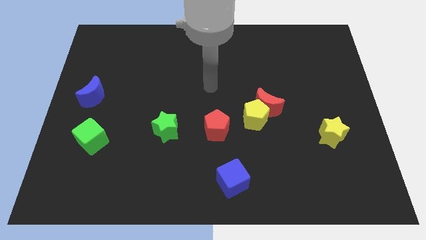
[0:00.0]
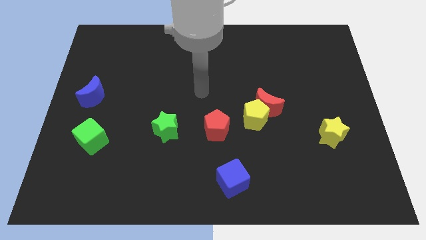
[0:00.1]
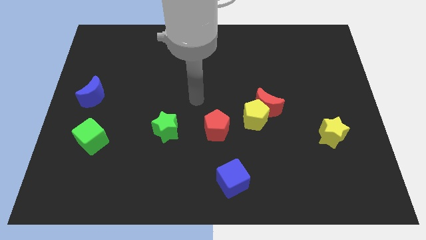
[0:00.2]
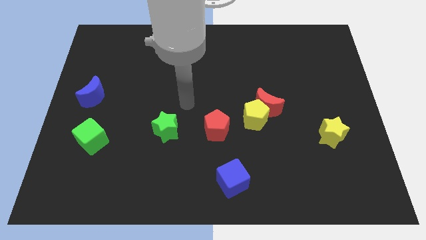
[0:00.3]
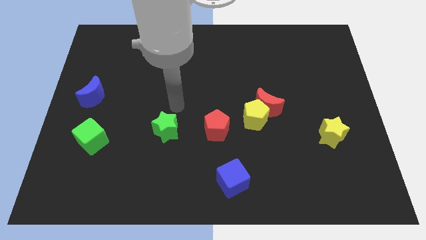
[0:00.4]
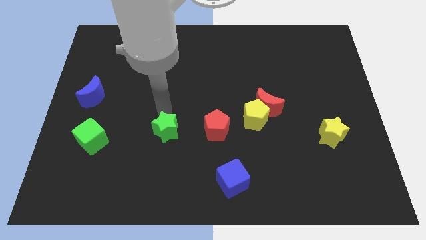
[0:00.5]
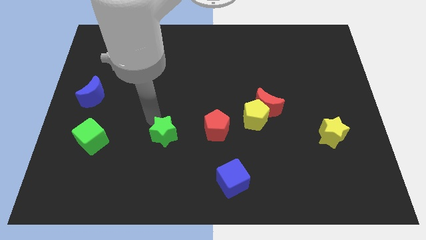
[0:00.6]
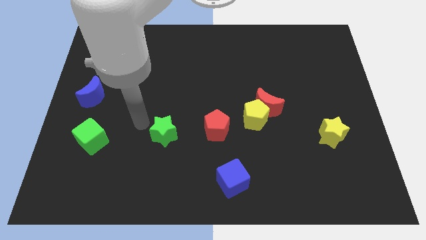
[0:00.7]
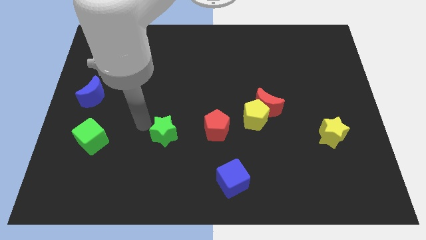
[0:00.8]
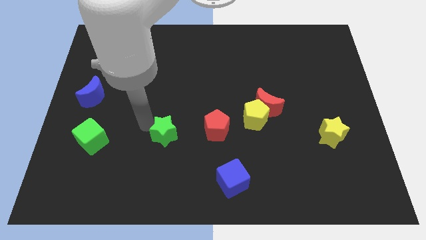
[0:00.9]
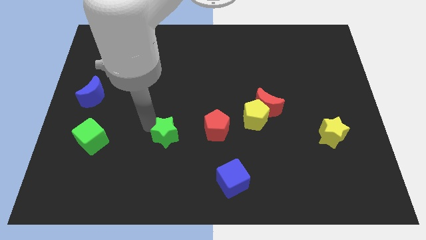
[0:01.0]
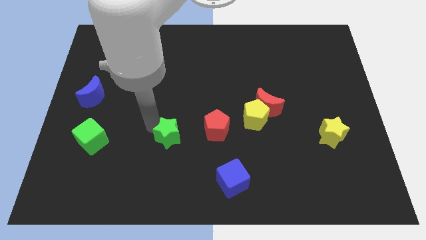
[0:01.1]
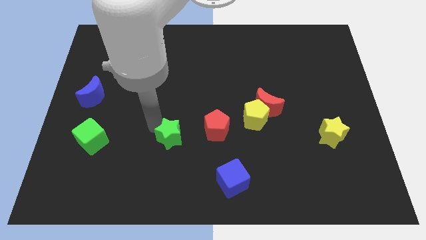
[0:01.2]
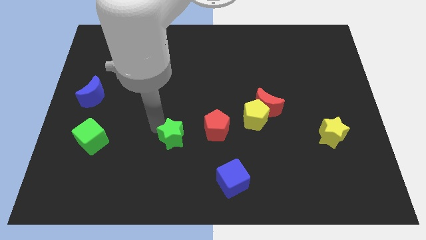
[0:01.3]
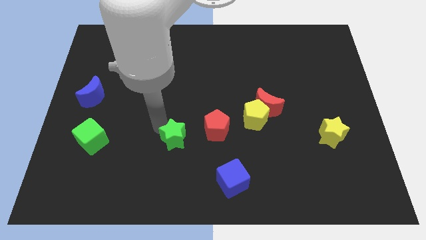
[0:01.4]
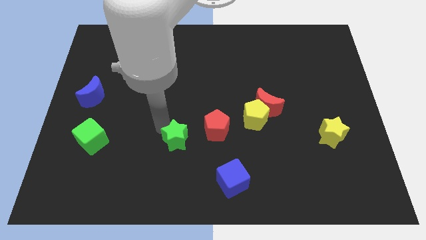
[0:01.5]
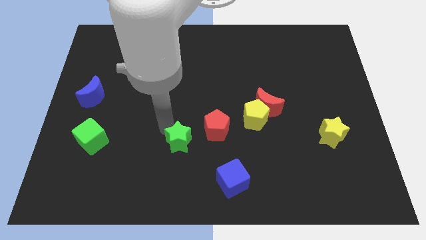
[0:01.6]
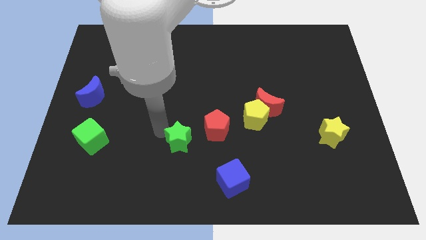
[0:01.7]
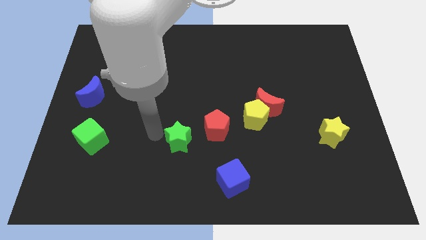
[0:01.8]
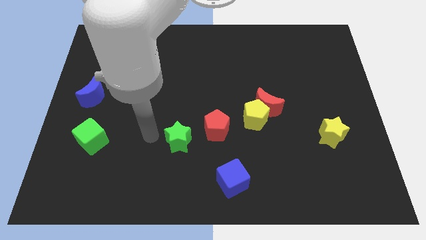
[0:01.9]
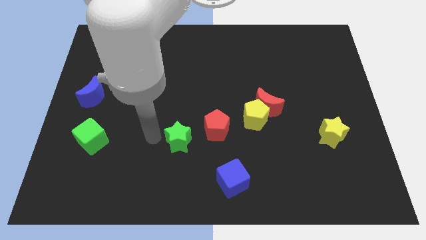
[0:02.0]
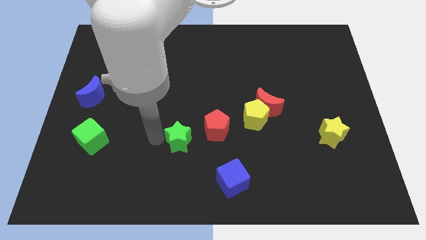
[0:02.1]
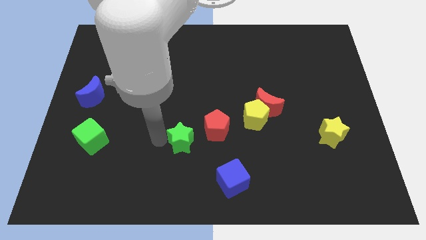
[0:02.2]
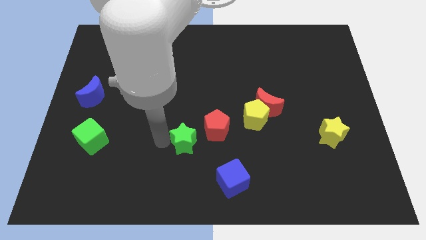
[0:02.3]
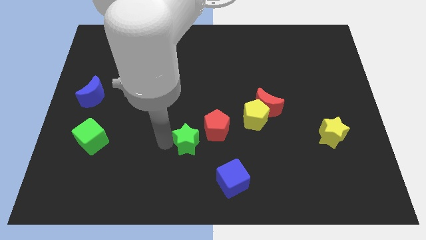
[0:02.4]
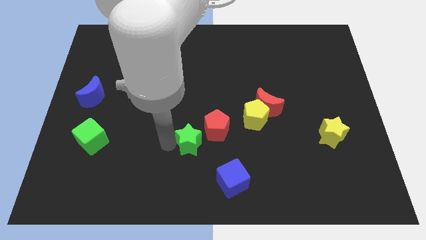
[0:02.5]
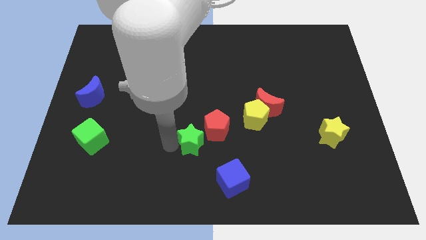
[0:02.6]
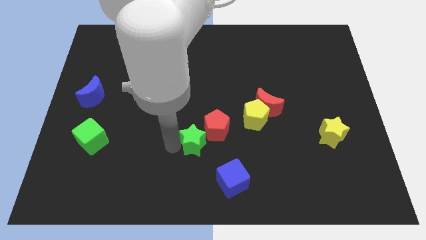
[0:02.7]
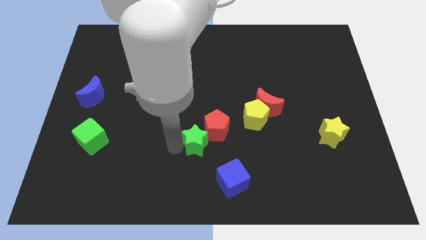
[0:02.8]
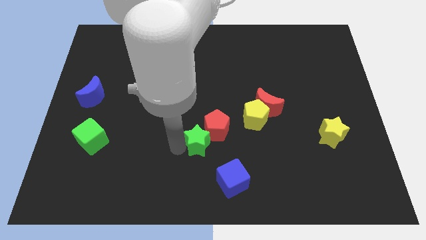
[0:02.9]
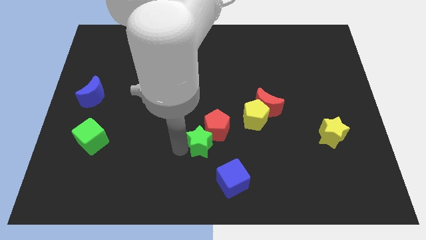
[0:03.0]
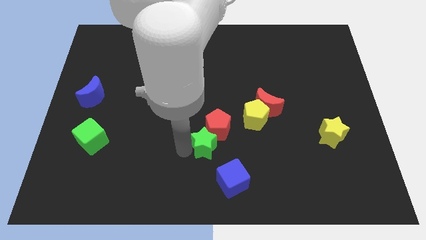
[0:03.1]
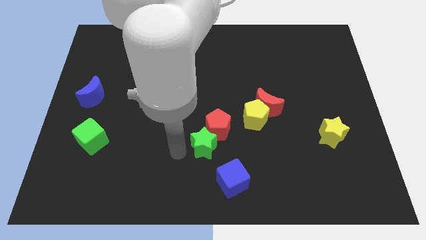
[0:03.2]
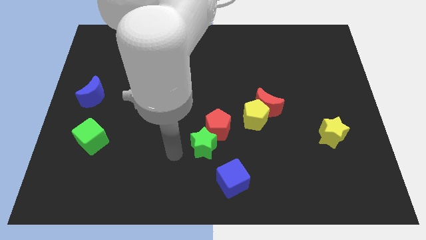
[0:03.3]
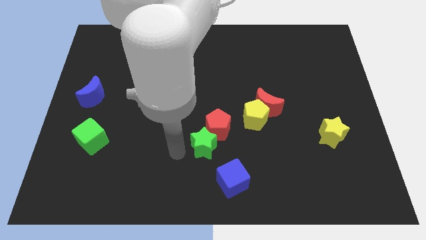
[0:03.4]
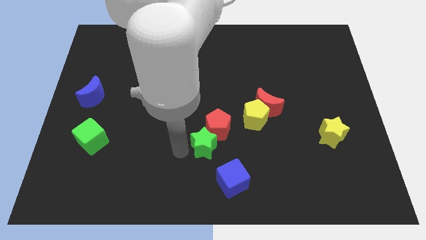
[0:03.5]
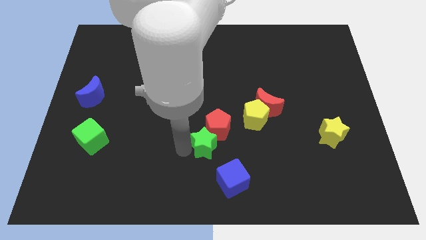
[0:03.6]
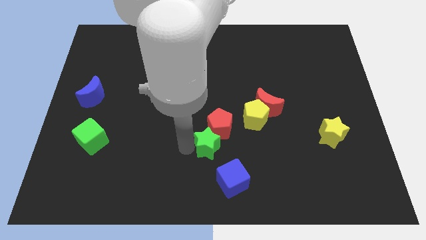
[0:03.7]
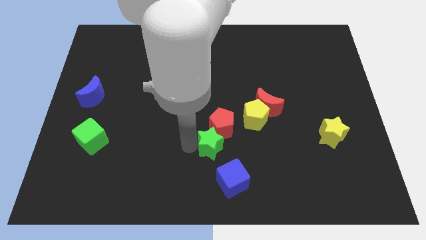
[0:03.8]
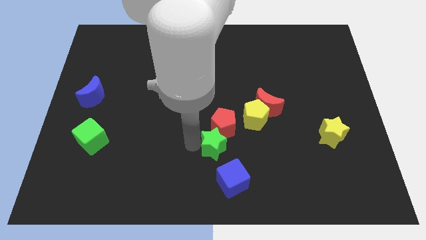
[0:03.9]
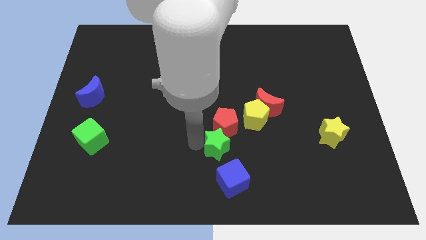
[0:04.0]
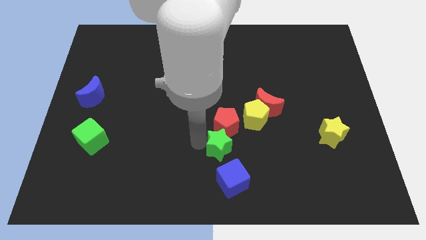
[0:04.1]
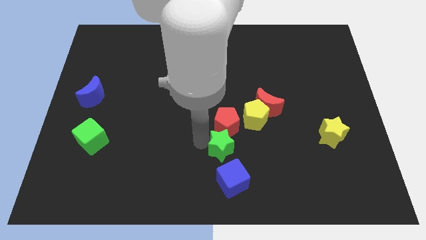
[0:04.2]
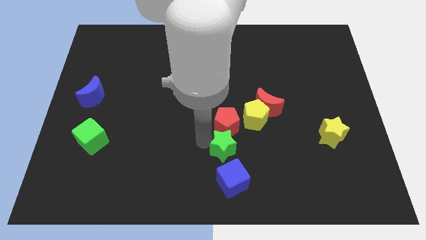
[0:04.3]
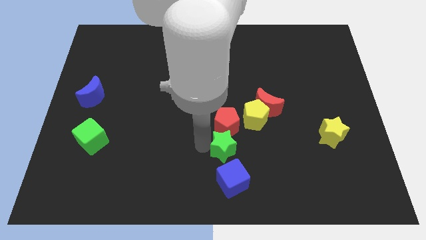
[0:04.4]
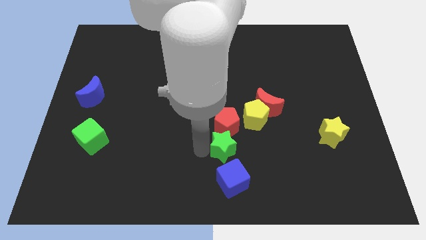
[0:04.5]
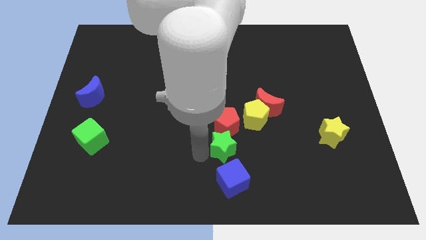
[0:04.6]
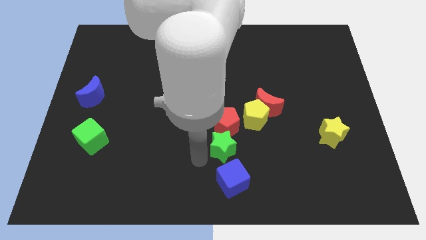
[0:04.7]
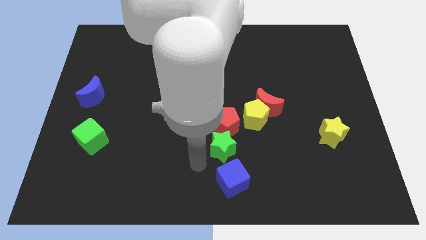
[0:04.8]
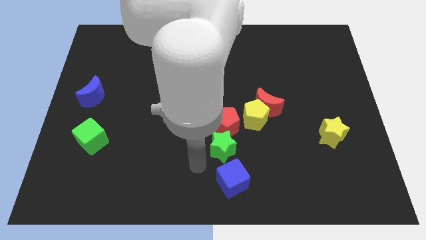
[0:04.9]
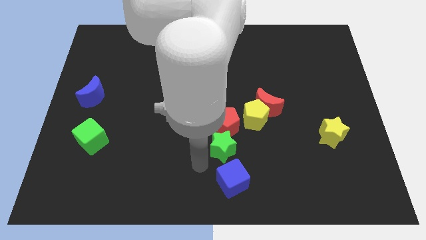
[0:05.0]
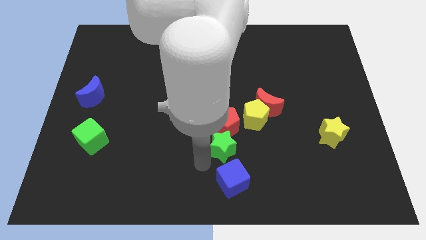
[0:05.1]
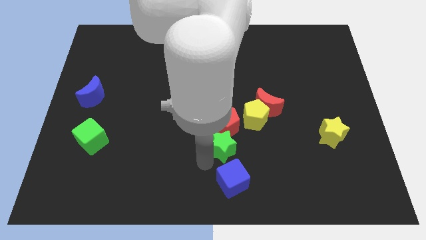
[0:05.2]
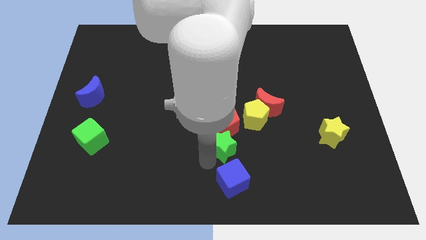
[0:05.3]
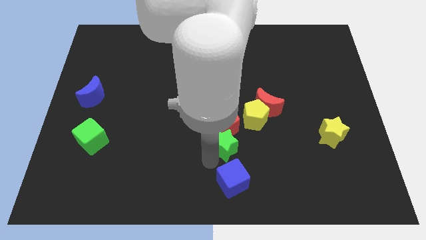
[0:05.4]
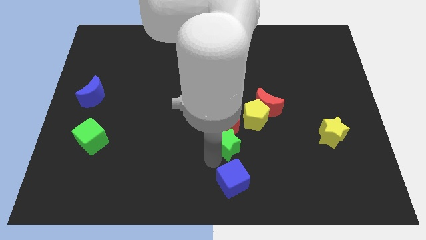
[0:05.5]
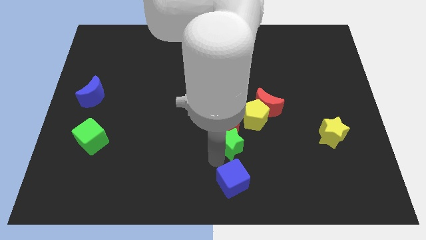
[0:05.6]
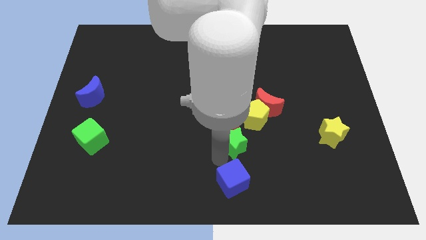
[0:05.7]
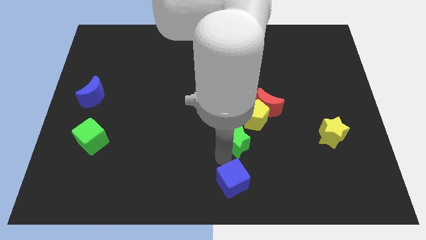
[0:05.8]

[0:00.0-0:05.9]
move the green star to the bottom left of the red moon
